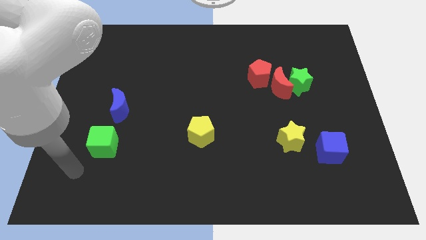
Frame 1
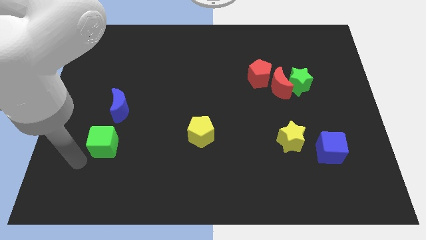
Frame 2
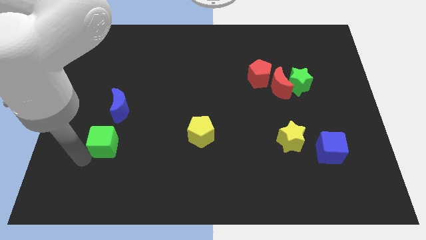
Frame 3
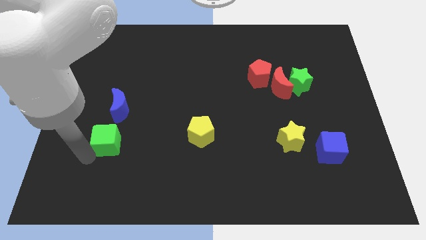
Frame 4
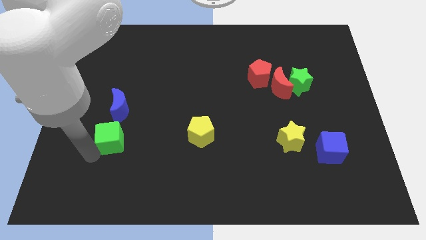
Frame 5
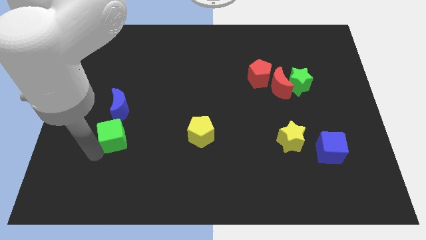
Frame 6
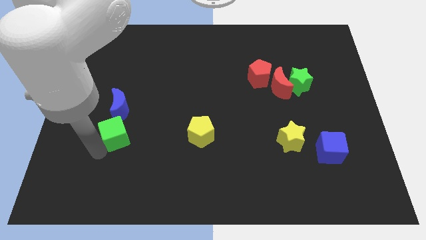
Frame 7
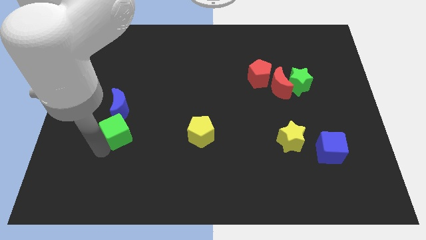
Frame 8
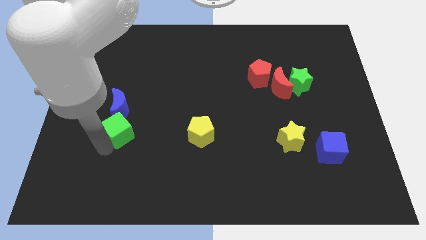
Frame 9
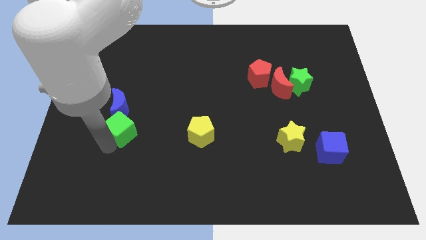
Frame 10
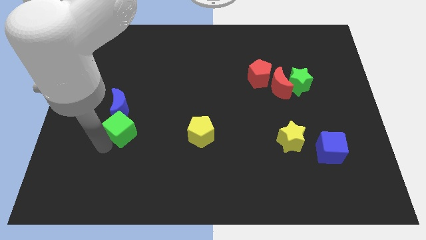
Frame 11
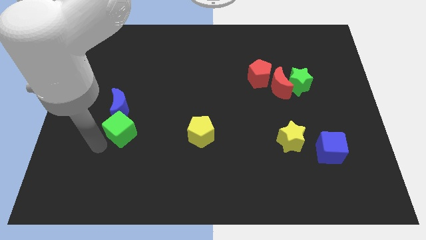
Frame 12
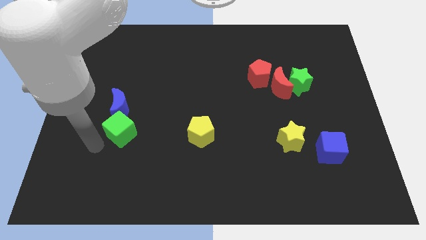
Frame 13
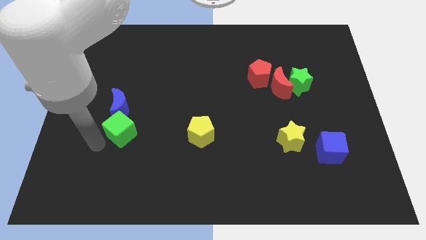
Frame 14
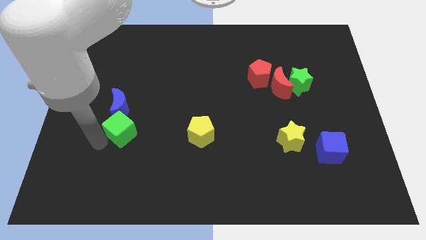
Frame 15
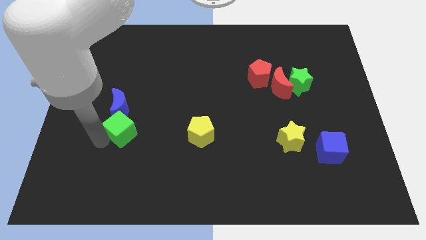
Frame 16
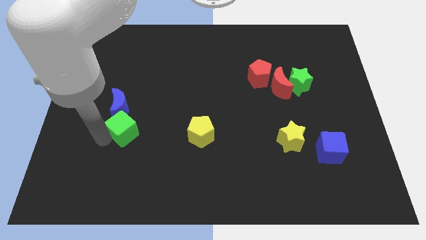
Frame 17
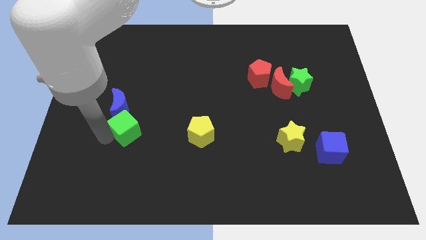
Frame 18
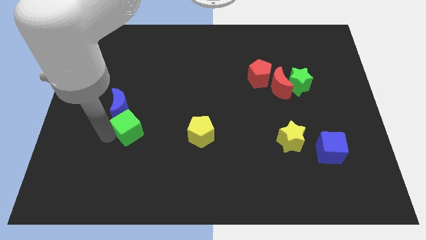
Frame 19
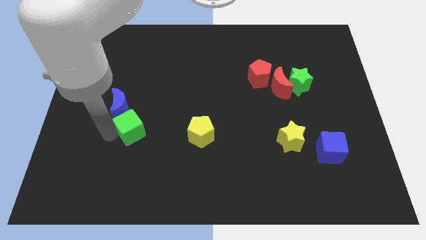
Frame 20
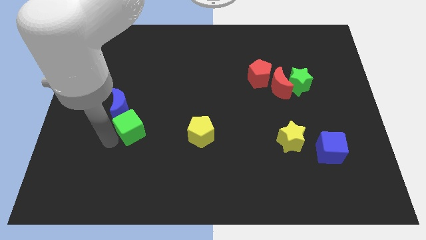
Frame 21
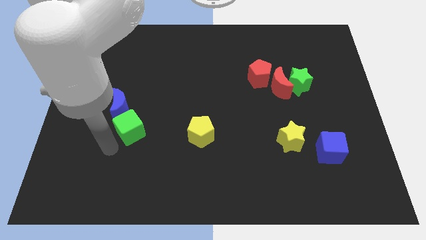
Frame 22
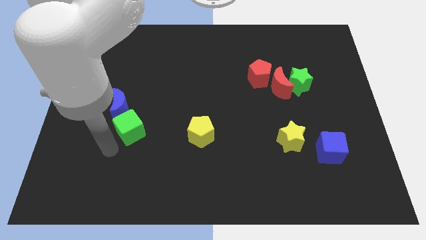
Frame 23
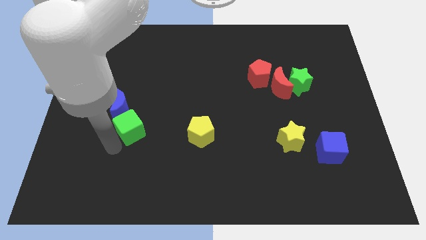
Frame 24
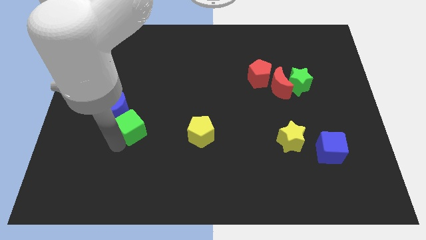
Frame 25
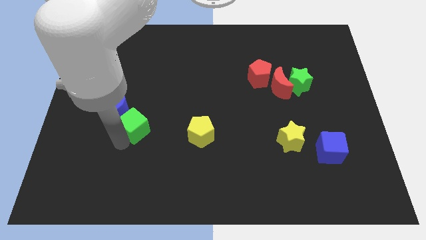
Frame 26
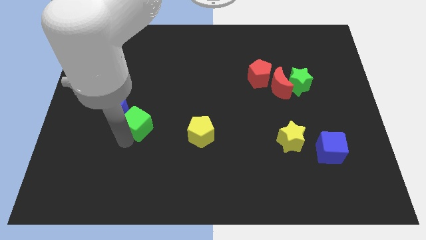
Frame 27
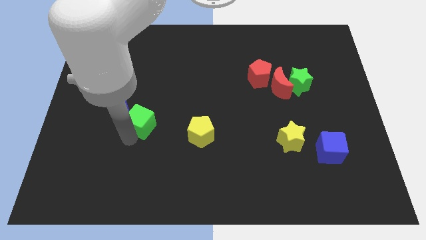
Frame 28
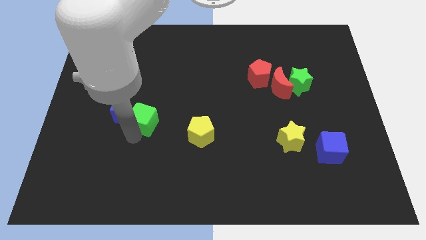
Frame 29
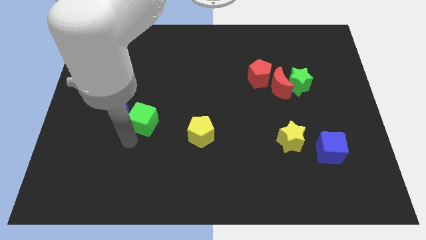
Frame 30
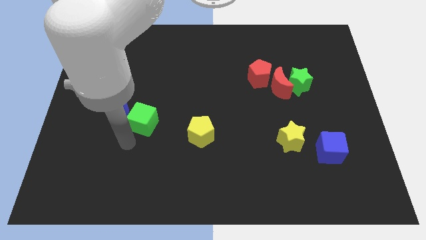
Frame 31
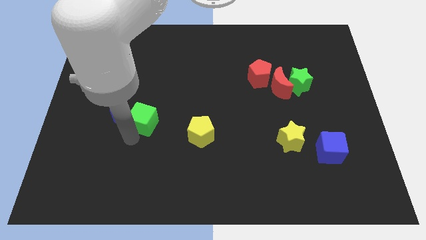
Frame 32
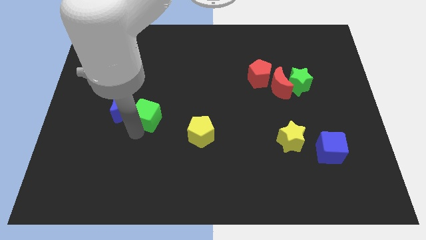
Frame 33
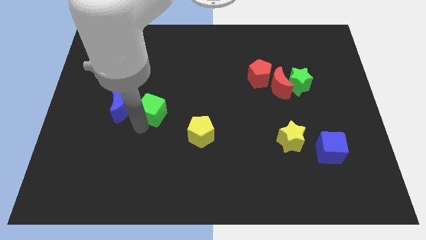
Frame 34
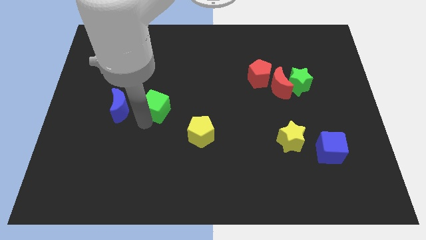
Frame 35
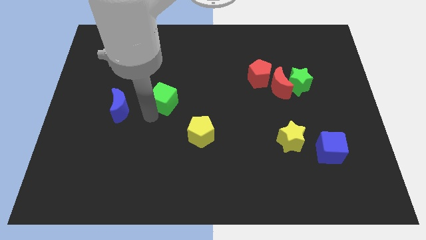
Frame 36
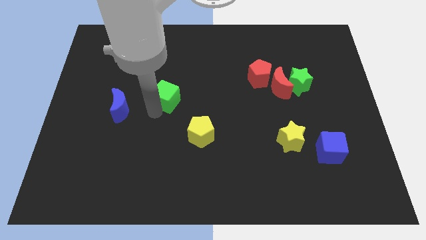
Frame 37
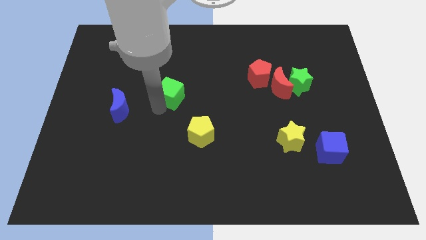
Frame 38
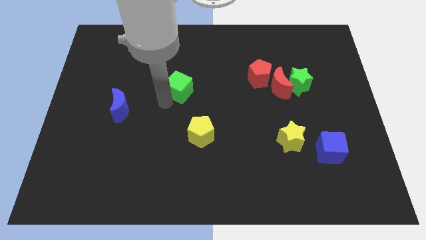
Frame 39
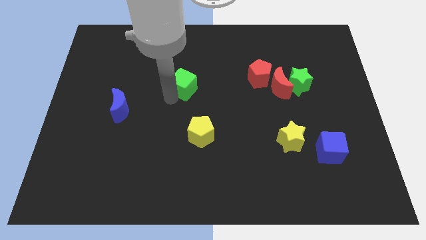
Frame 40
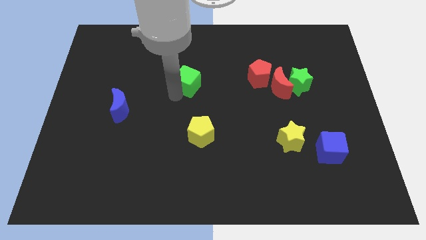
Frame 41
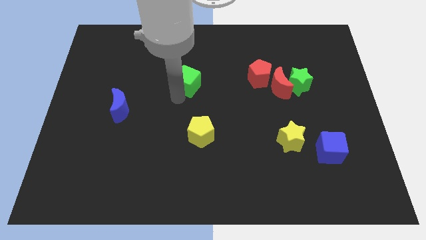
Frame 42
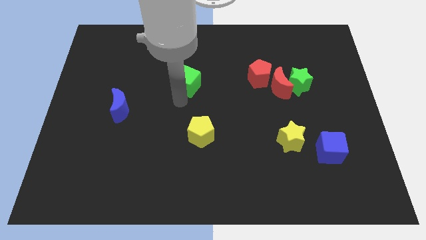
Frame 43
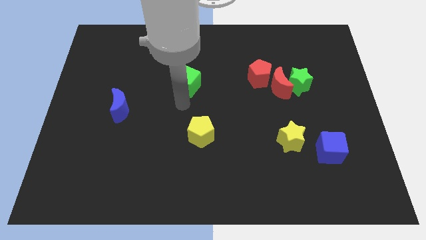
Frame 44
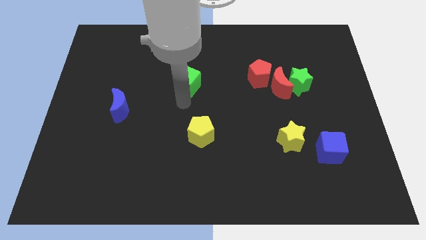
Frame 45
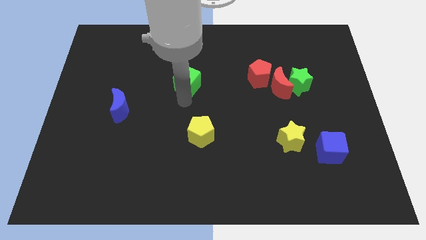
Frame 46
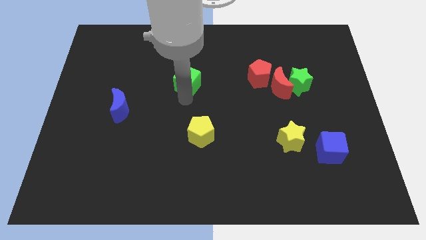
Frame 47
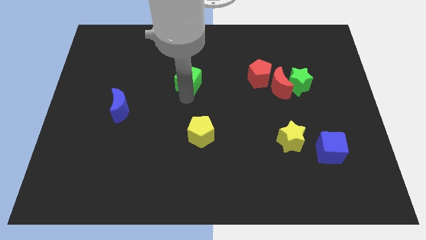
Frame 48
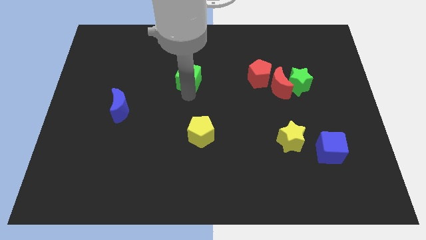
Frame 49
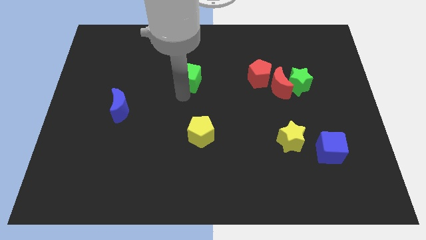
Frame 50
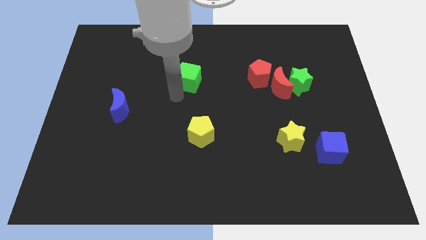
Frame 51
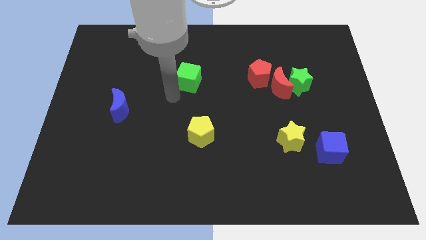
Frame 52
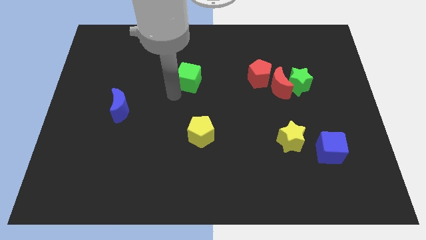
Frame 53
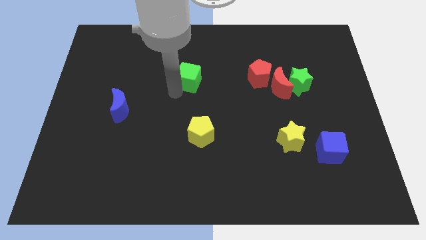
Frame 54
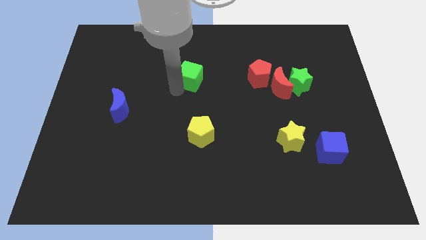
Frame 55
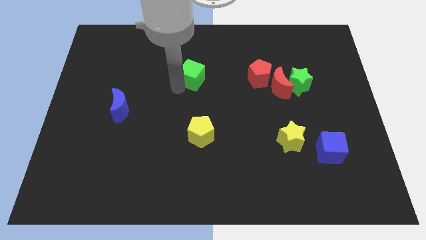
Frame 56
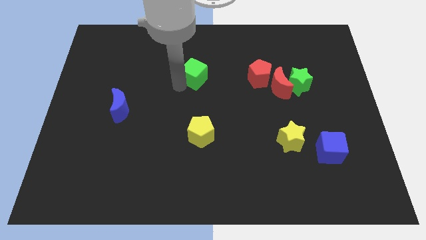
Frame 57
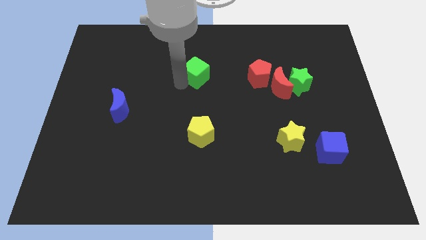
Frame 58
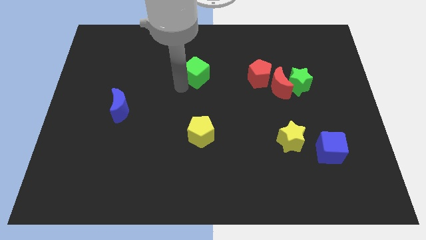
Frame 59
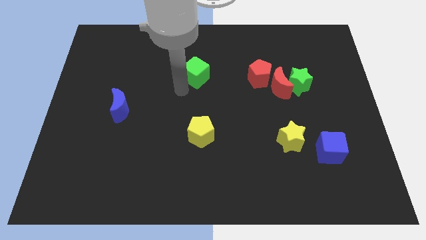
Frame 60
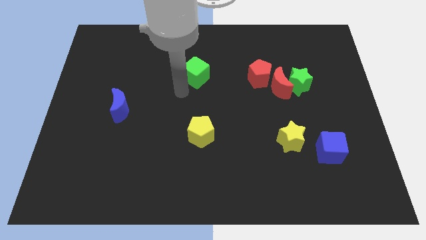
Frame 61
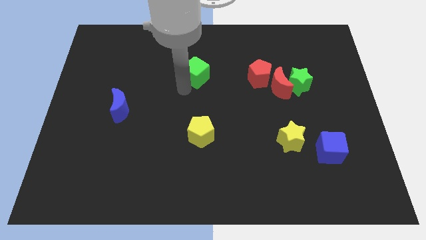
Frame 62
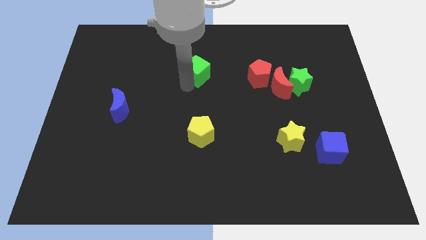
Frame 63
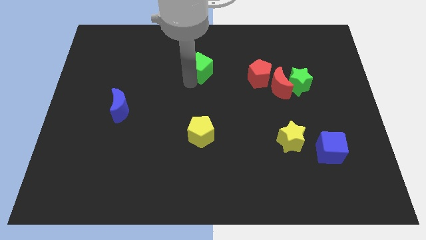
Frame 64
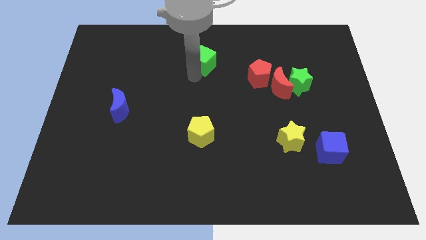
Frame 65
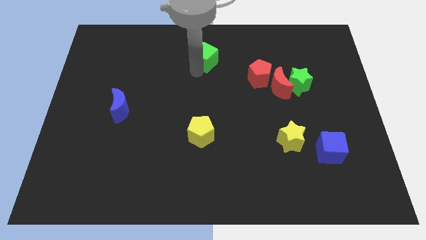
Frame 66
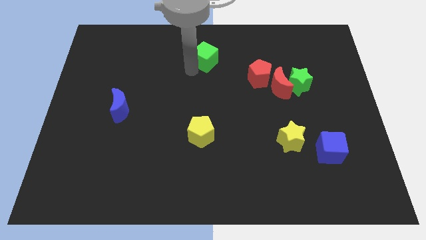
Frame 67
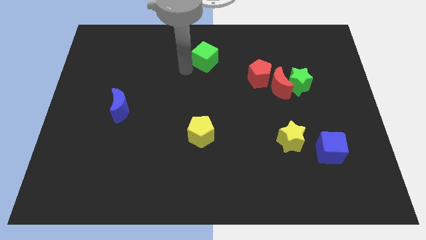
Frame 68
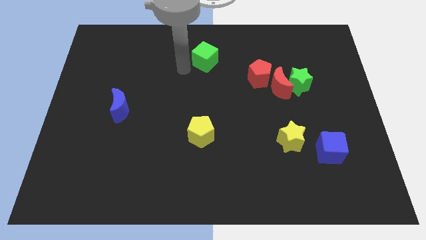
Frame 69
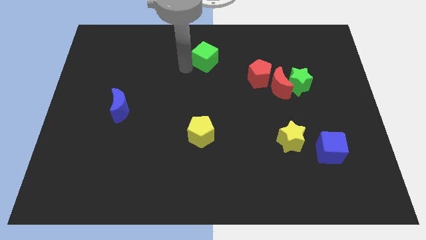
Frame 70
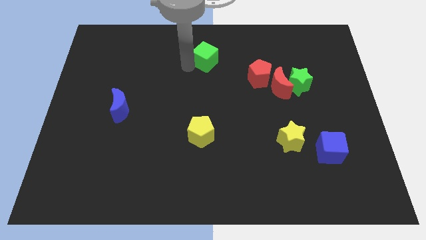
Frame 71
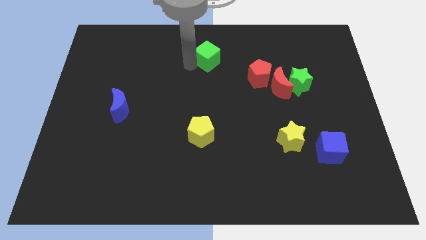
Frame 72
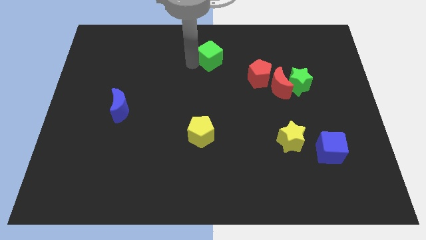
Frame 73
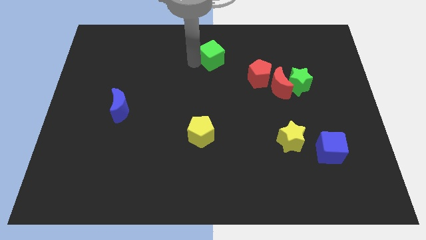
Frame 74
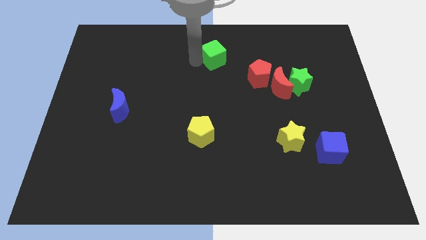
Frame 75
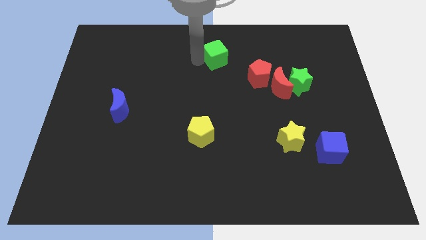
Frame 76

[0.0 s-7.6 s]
put the green cube to the top side
